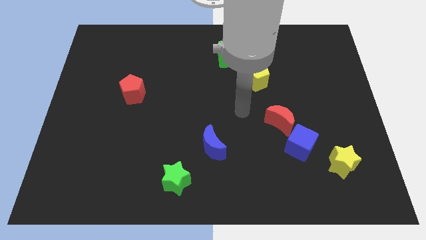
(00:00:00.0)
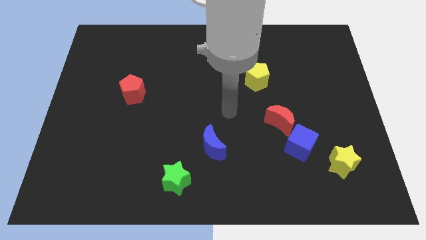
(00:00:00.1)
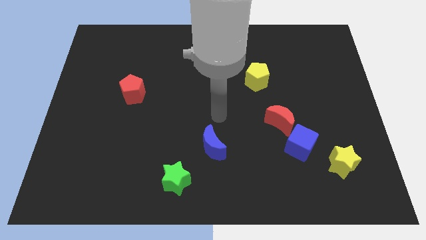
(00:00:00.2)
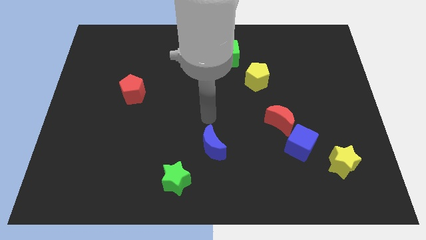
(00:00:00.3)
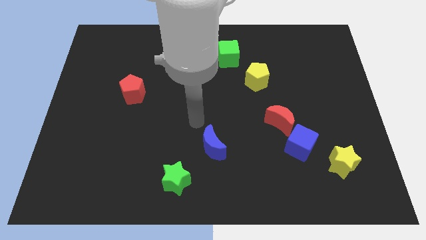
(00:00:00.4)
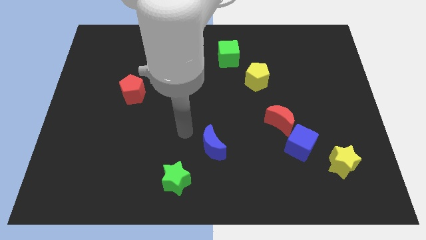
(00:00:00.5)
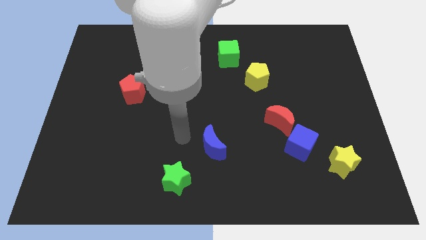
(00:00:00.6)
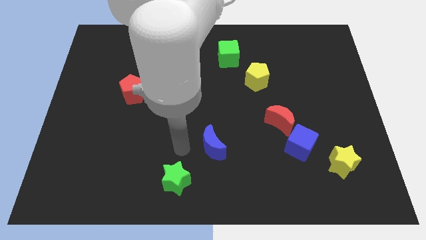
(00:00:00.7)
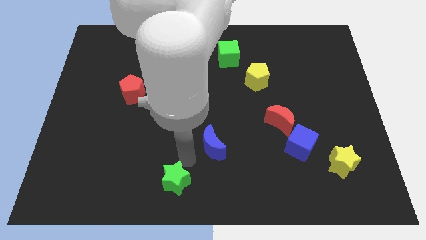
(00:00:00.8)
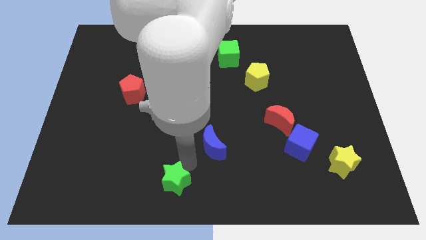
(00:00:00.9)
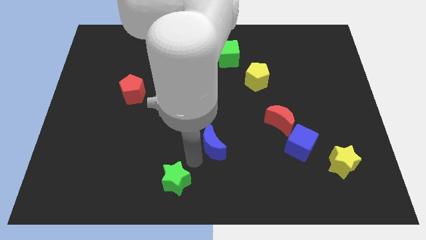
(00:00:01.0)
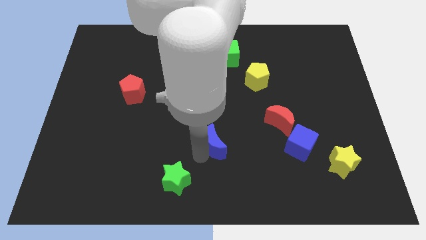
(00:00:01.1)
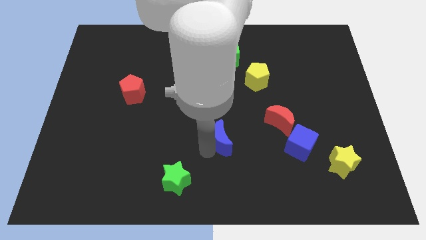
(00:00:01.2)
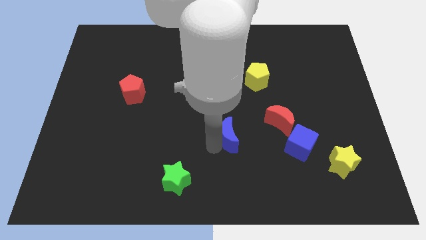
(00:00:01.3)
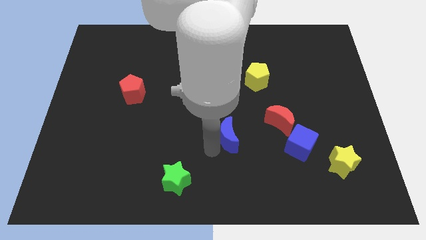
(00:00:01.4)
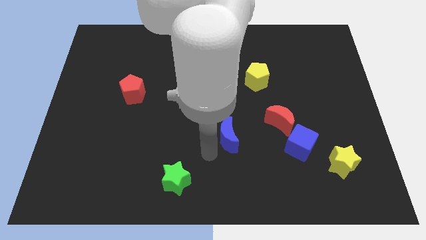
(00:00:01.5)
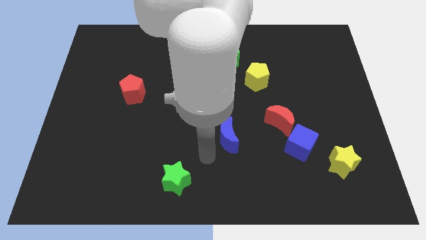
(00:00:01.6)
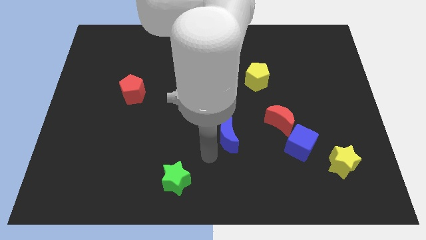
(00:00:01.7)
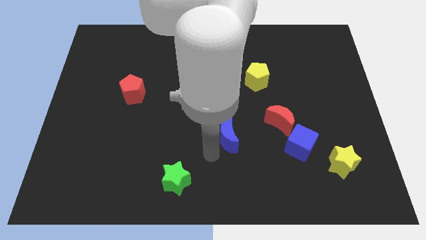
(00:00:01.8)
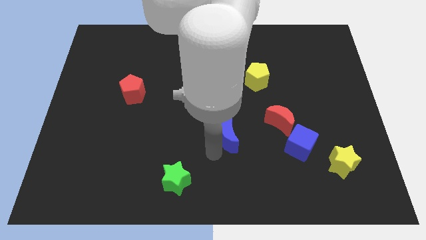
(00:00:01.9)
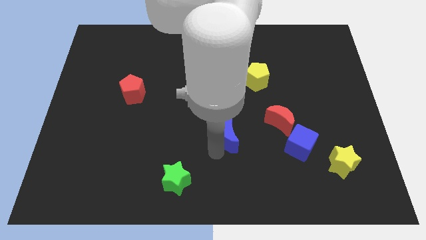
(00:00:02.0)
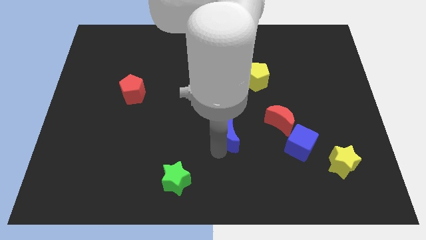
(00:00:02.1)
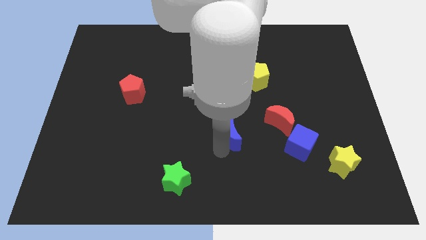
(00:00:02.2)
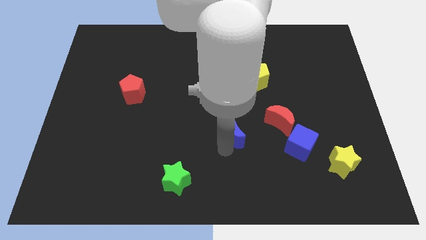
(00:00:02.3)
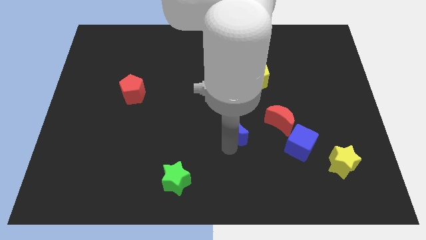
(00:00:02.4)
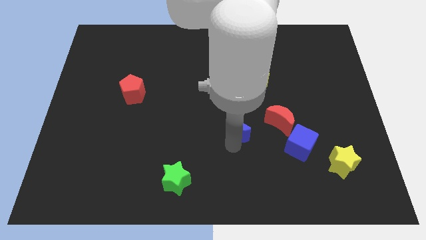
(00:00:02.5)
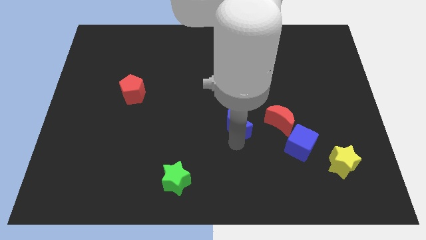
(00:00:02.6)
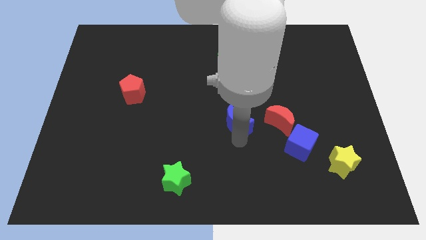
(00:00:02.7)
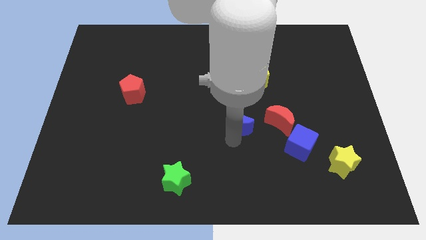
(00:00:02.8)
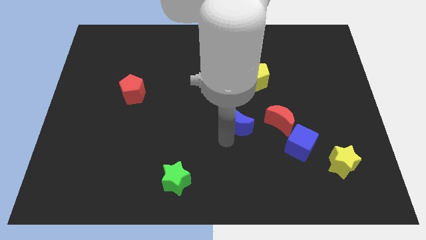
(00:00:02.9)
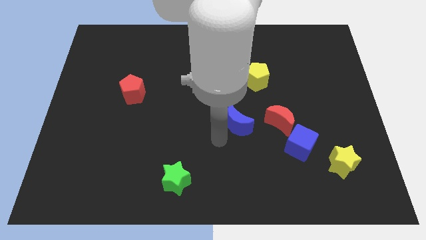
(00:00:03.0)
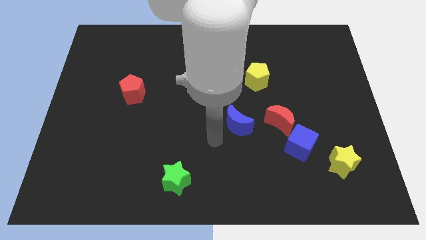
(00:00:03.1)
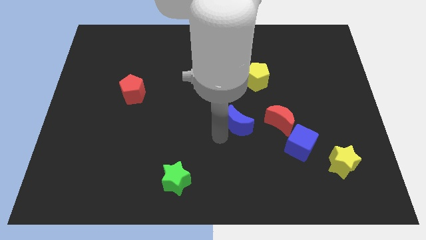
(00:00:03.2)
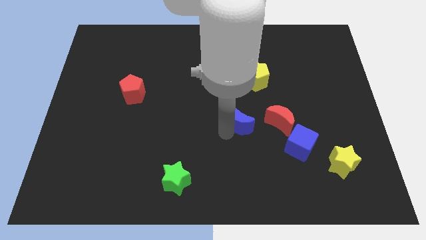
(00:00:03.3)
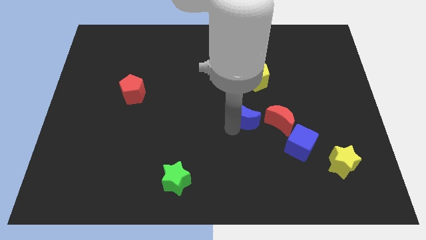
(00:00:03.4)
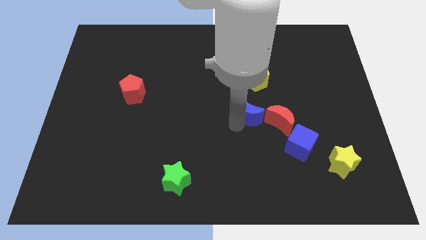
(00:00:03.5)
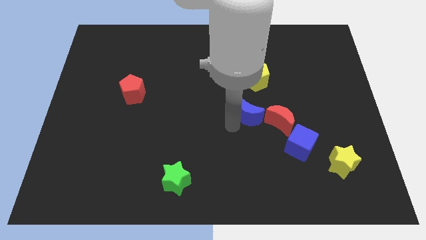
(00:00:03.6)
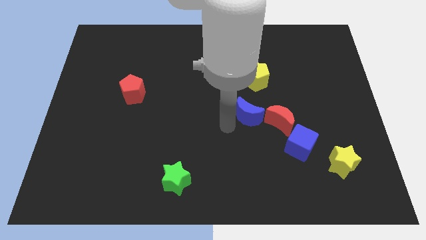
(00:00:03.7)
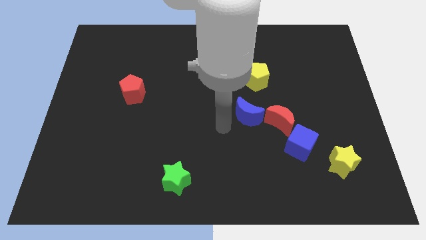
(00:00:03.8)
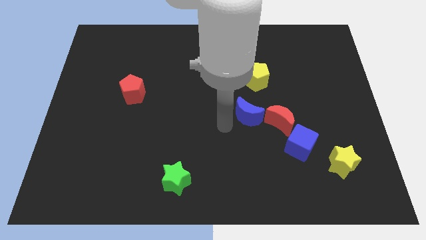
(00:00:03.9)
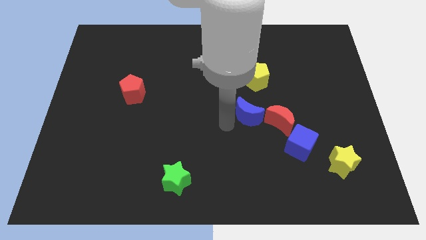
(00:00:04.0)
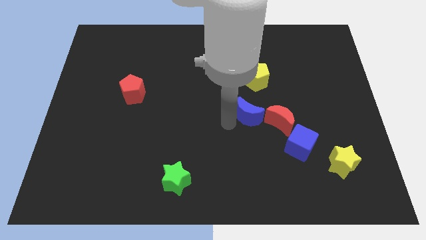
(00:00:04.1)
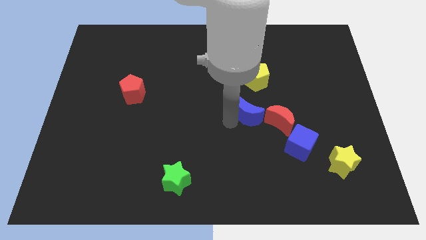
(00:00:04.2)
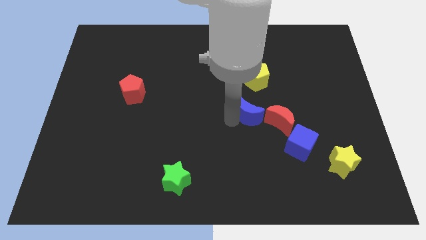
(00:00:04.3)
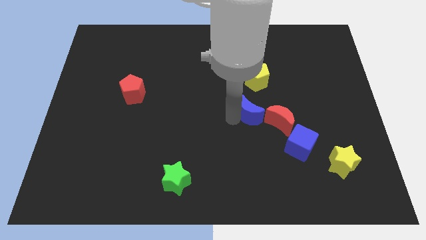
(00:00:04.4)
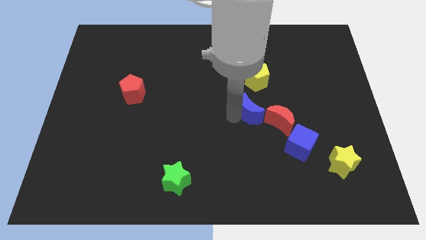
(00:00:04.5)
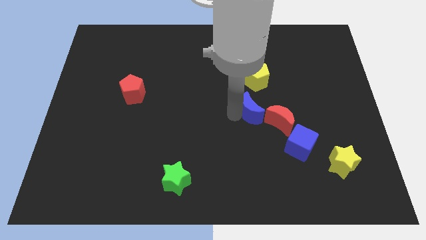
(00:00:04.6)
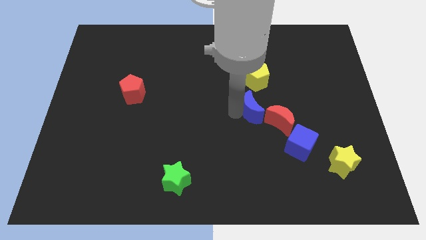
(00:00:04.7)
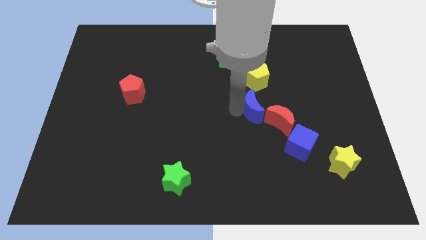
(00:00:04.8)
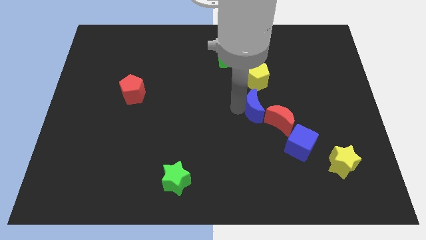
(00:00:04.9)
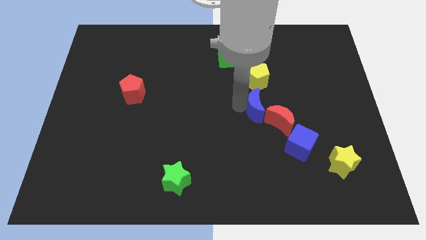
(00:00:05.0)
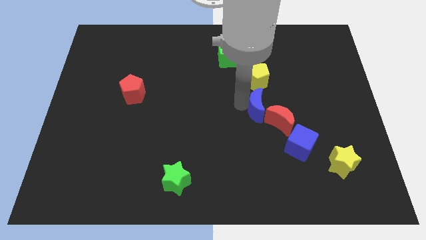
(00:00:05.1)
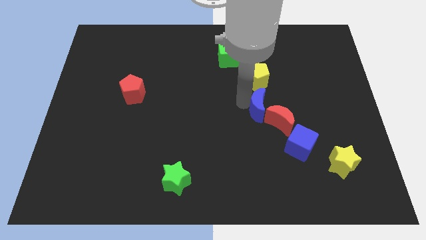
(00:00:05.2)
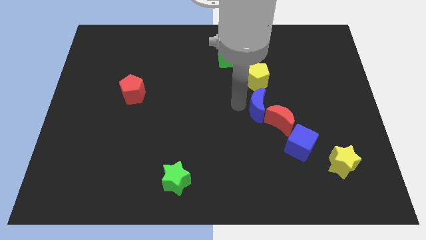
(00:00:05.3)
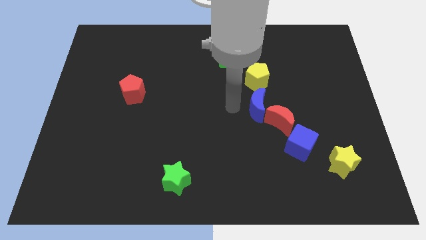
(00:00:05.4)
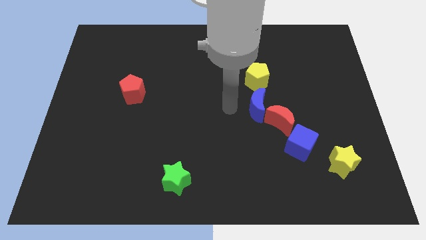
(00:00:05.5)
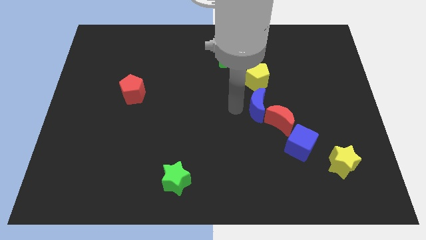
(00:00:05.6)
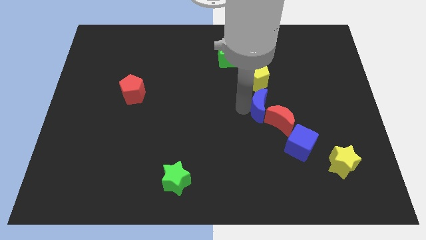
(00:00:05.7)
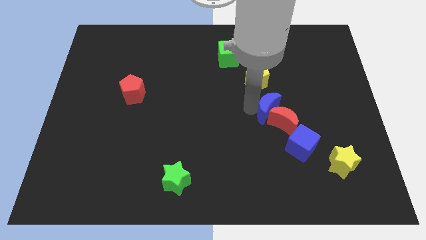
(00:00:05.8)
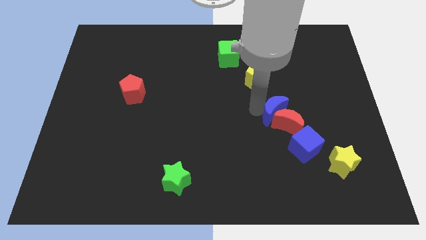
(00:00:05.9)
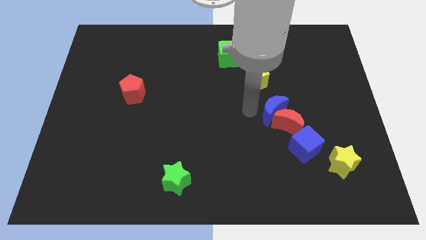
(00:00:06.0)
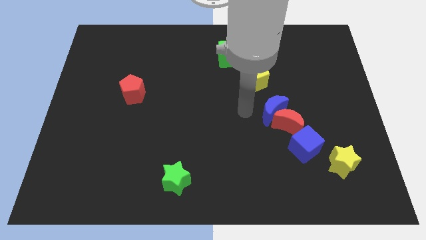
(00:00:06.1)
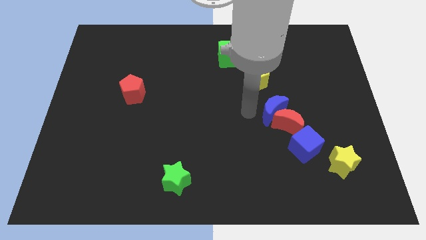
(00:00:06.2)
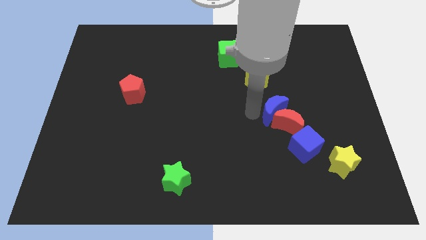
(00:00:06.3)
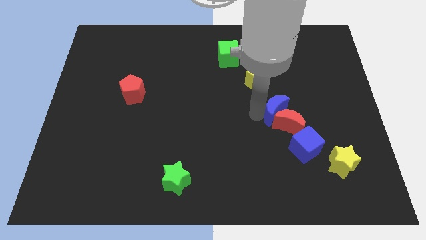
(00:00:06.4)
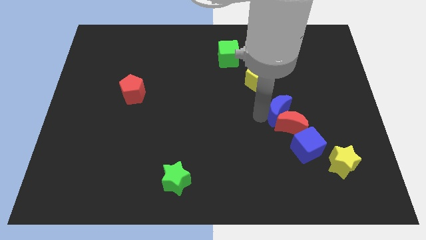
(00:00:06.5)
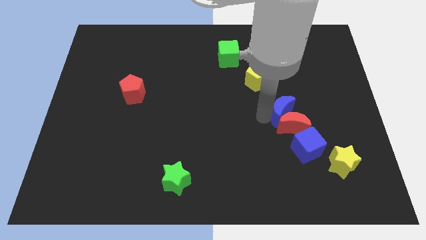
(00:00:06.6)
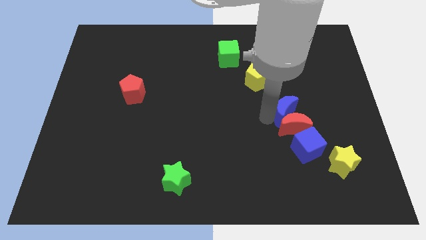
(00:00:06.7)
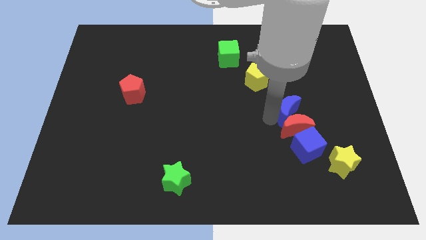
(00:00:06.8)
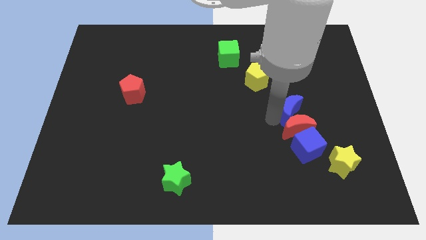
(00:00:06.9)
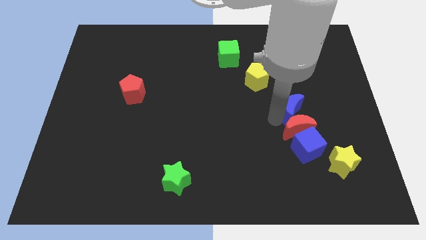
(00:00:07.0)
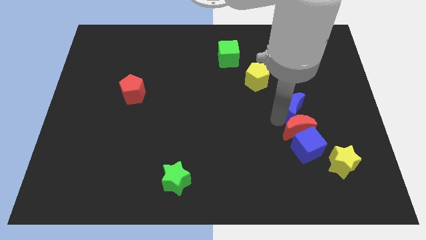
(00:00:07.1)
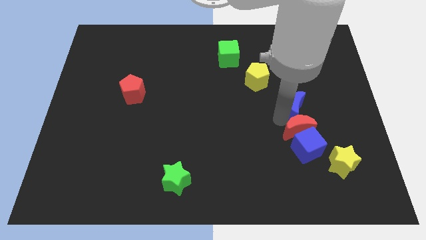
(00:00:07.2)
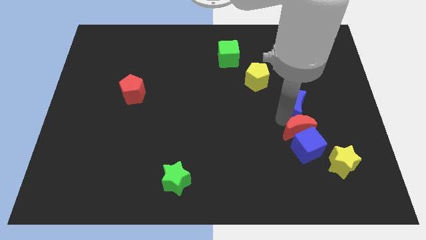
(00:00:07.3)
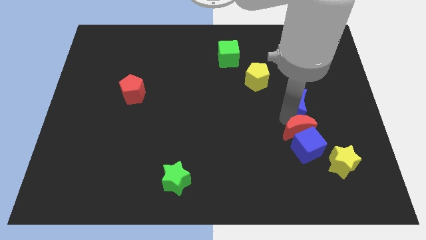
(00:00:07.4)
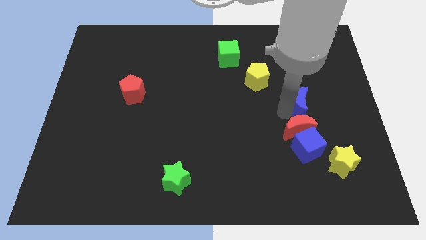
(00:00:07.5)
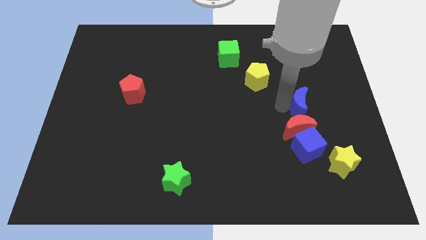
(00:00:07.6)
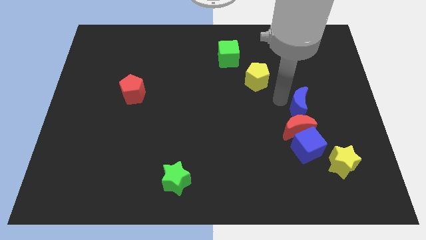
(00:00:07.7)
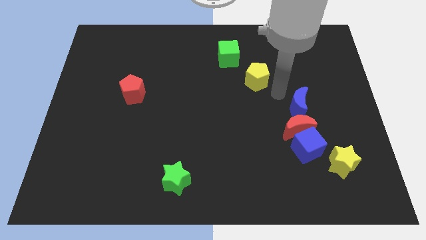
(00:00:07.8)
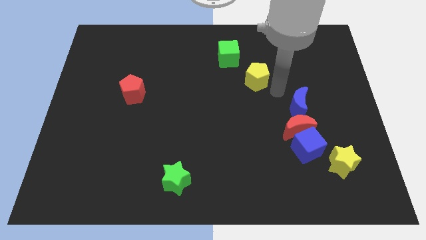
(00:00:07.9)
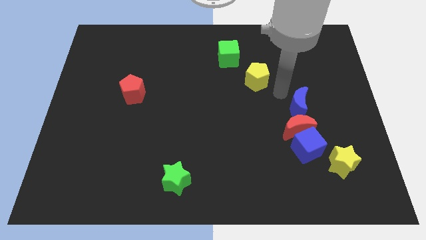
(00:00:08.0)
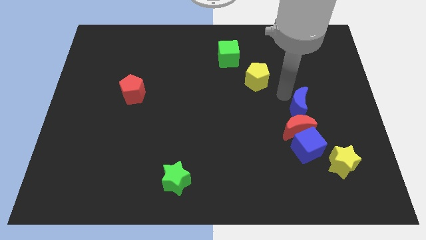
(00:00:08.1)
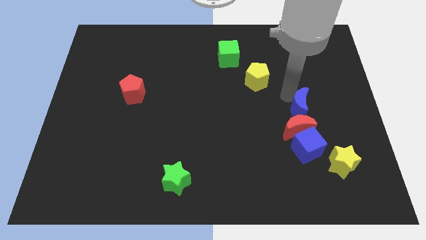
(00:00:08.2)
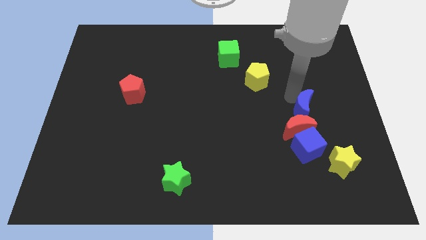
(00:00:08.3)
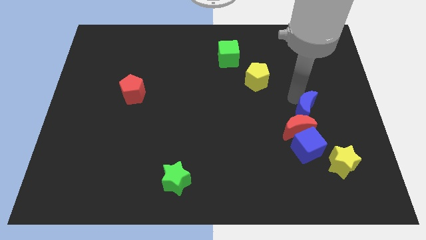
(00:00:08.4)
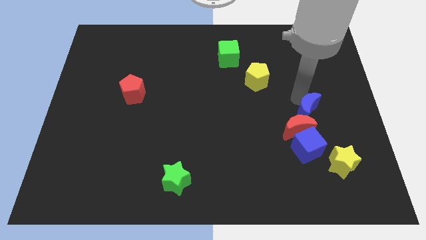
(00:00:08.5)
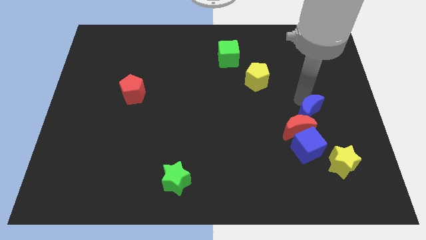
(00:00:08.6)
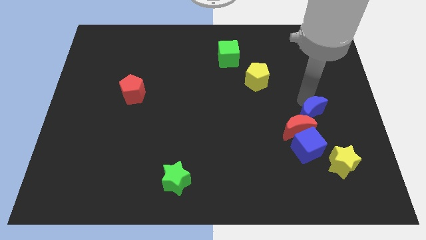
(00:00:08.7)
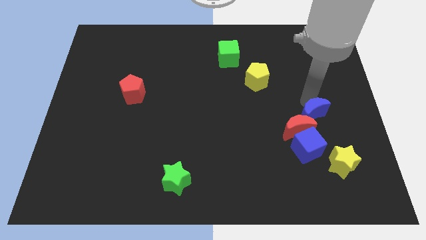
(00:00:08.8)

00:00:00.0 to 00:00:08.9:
slide the blue moon diagonally up and to the right of the blue cube
